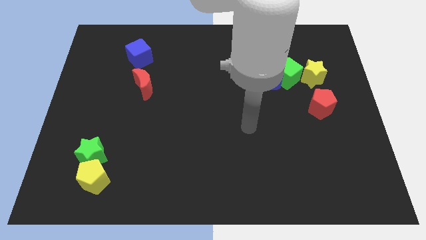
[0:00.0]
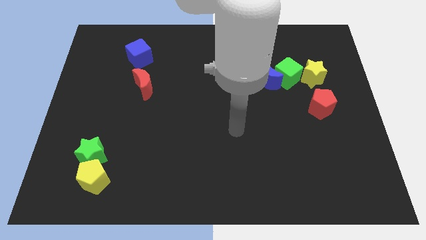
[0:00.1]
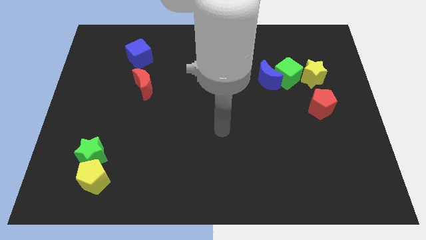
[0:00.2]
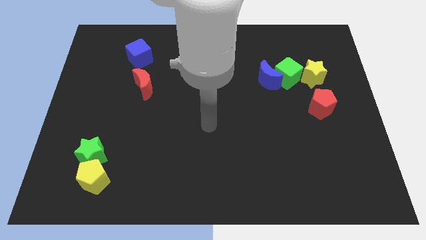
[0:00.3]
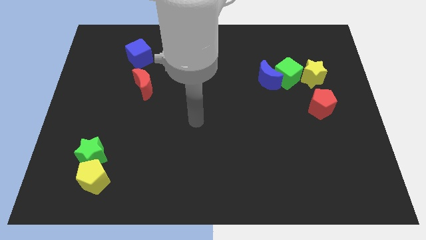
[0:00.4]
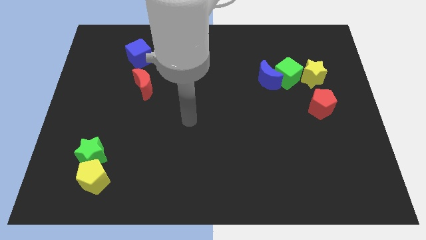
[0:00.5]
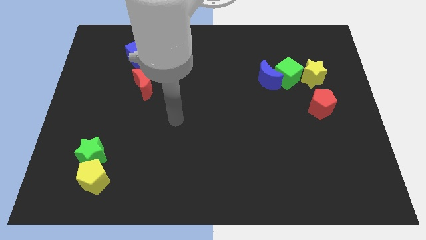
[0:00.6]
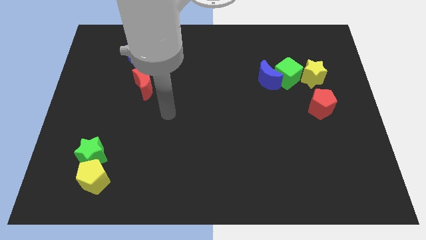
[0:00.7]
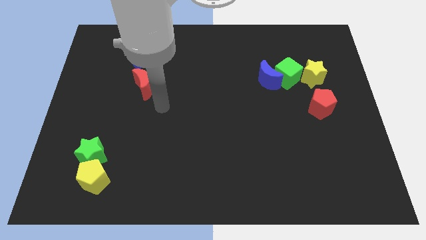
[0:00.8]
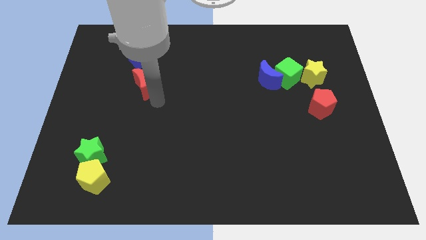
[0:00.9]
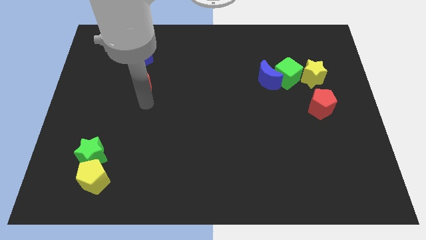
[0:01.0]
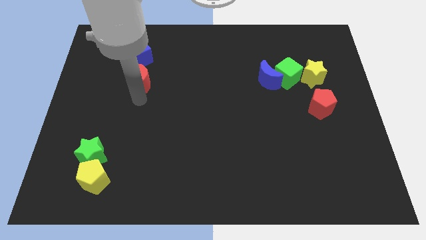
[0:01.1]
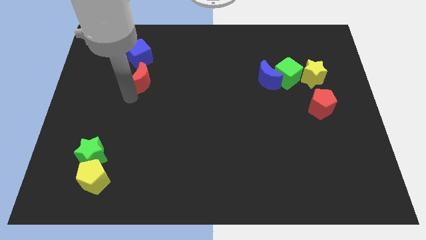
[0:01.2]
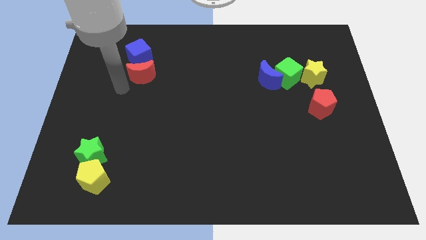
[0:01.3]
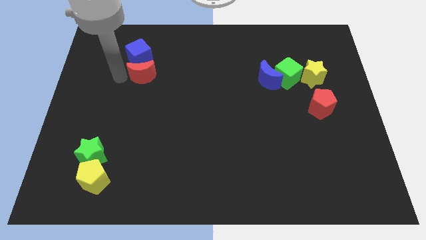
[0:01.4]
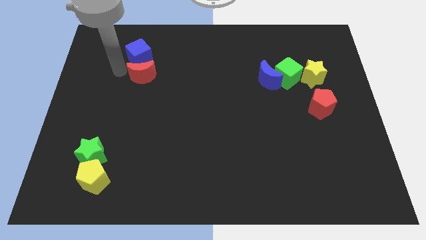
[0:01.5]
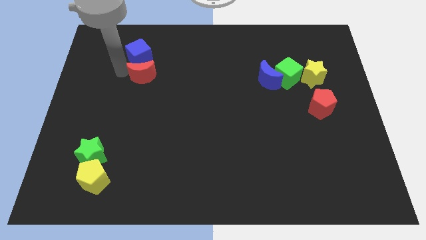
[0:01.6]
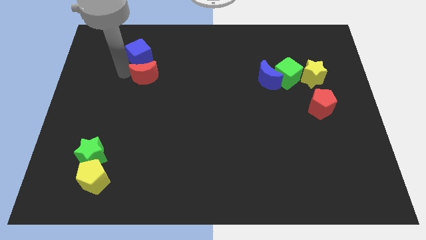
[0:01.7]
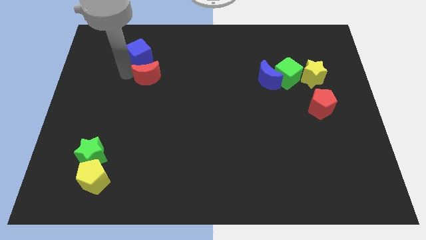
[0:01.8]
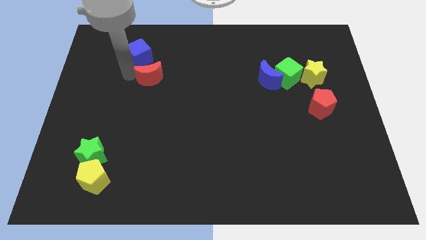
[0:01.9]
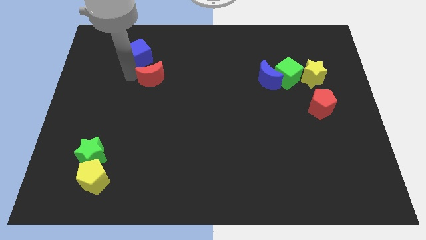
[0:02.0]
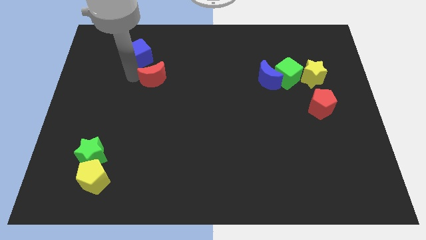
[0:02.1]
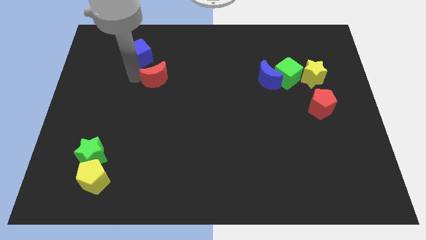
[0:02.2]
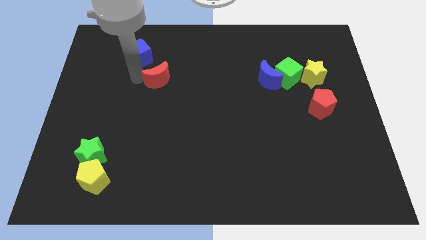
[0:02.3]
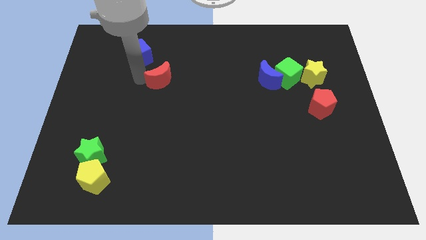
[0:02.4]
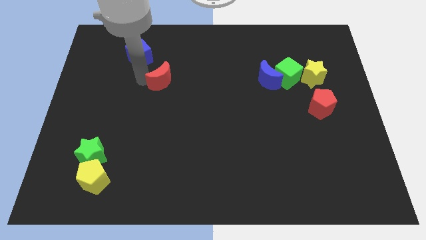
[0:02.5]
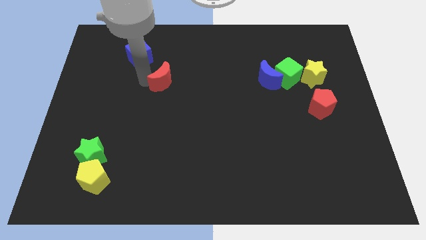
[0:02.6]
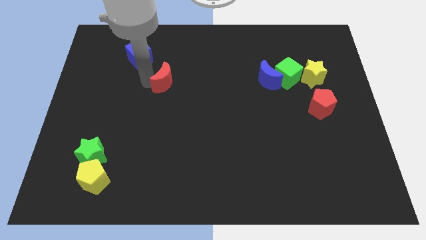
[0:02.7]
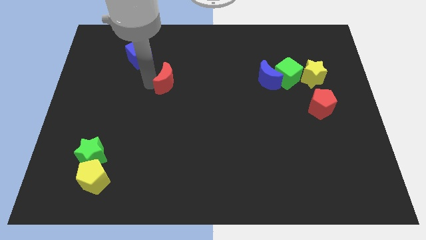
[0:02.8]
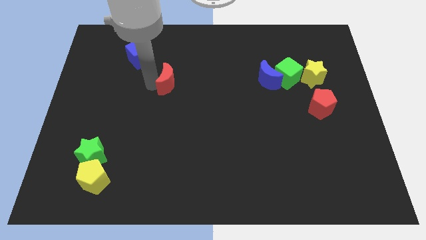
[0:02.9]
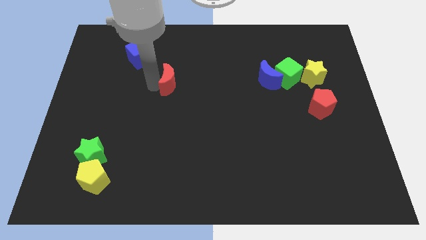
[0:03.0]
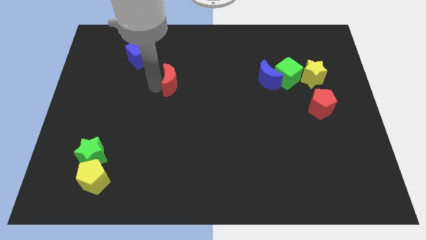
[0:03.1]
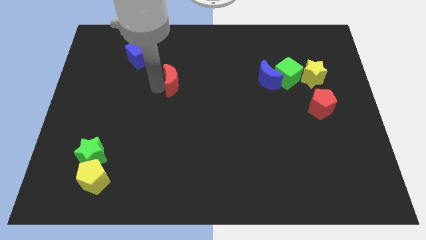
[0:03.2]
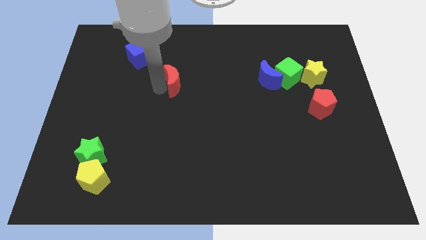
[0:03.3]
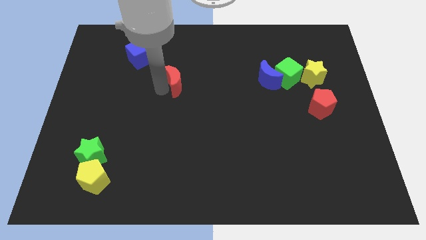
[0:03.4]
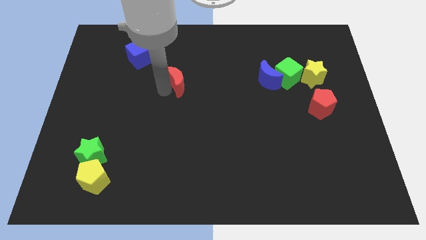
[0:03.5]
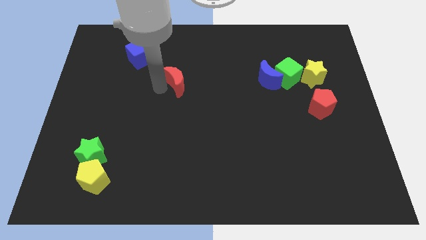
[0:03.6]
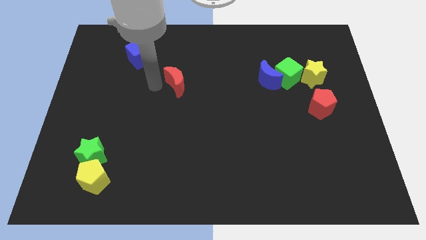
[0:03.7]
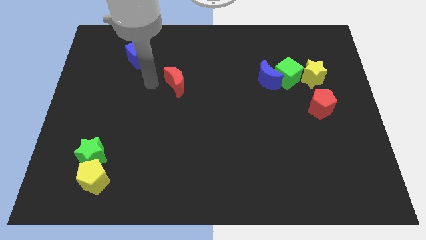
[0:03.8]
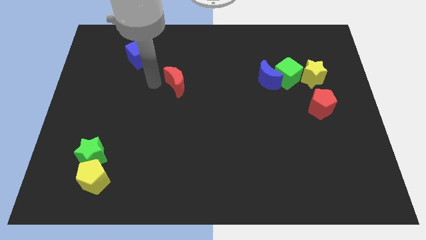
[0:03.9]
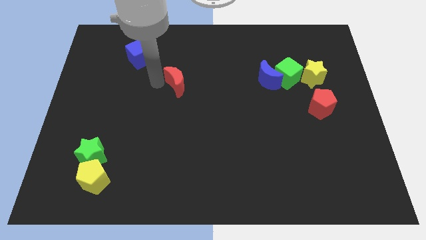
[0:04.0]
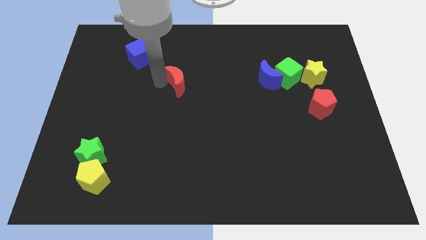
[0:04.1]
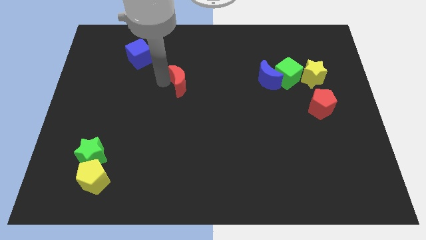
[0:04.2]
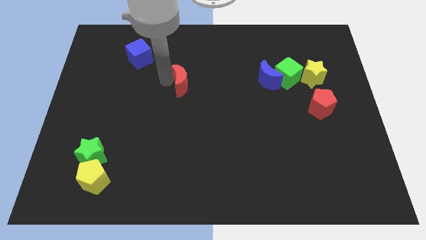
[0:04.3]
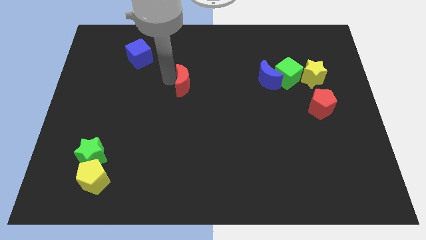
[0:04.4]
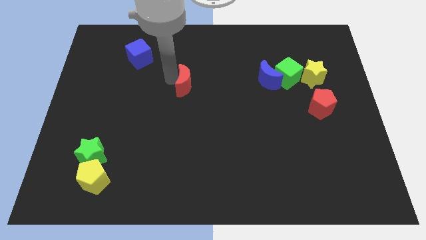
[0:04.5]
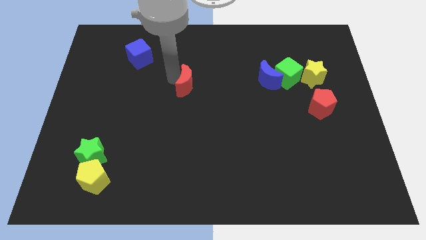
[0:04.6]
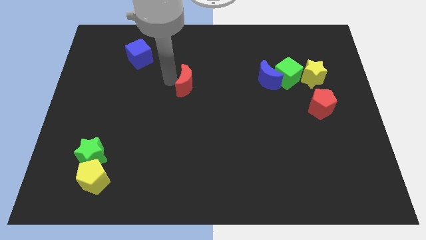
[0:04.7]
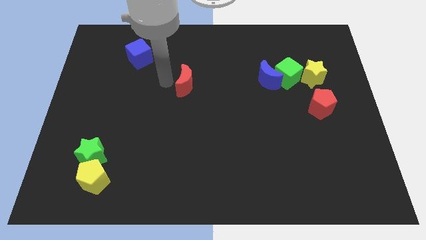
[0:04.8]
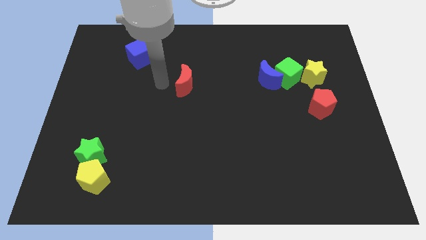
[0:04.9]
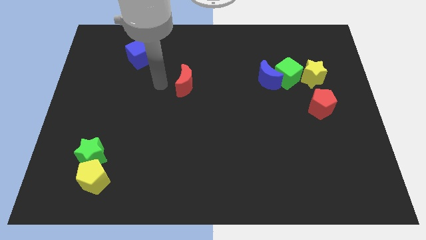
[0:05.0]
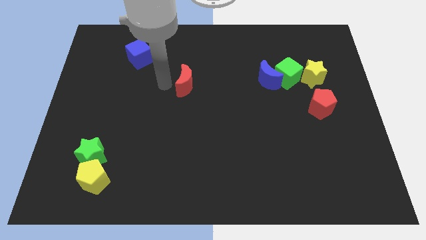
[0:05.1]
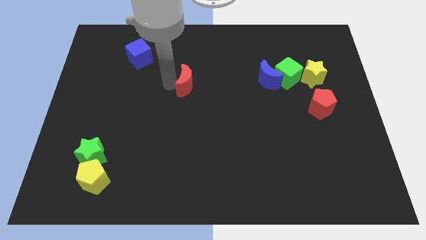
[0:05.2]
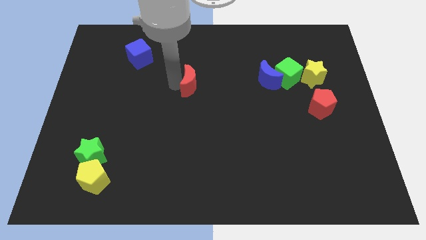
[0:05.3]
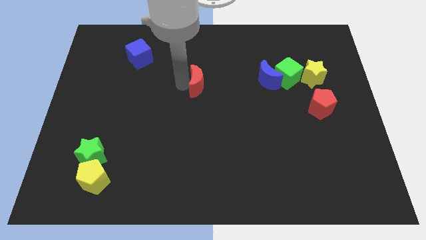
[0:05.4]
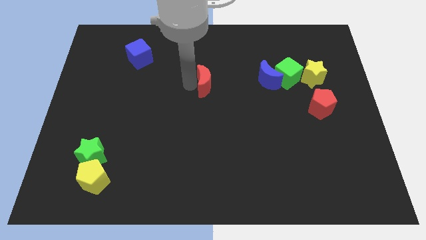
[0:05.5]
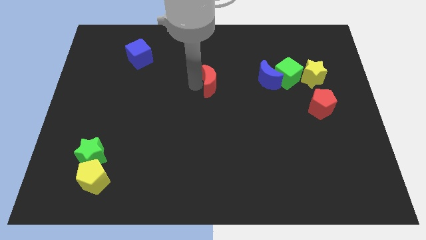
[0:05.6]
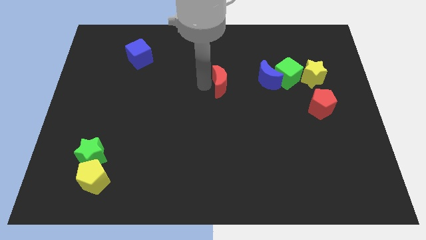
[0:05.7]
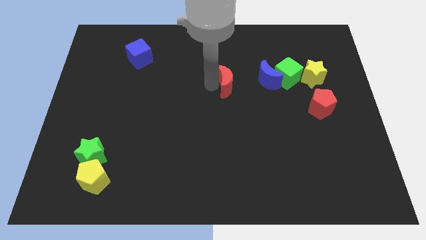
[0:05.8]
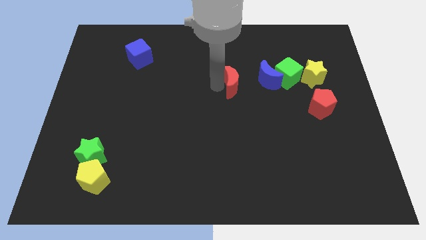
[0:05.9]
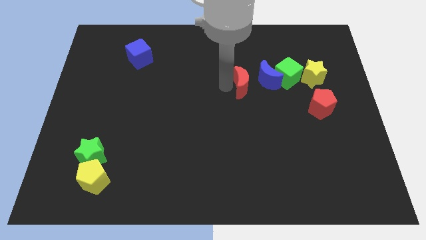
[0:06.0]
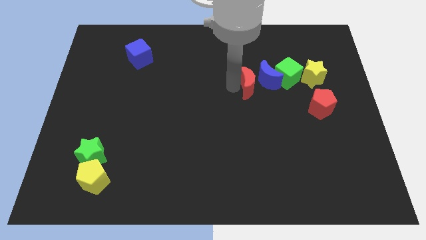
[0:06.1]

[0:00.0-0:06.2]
slide the red moon next to the blue moon

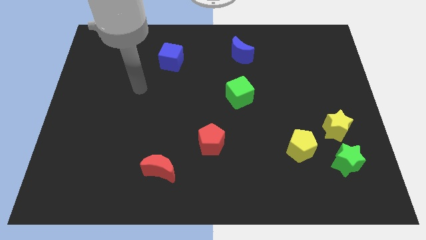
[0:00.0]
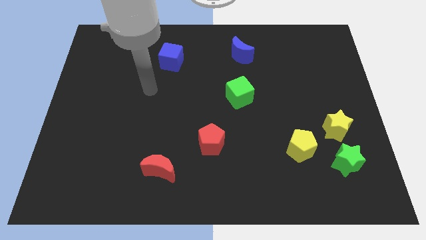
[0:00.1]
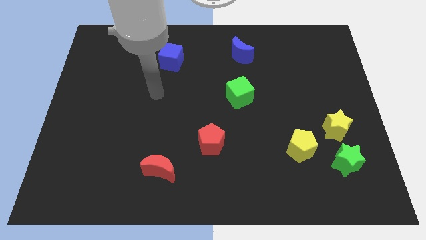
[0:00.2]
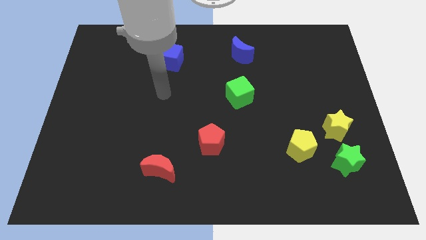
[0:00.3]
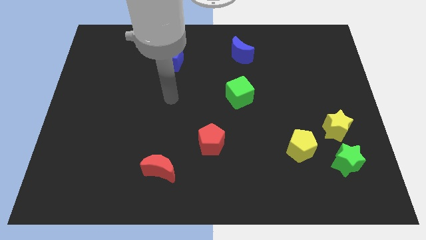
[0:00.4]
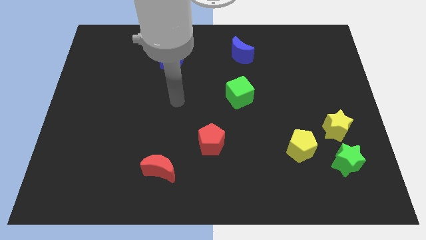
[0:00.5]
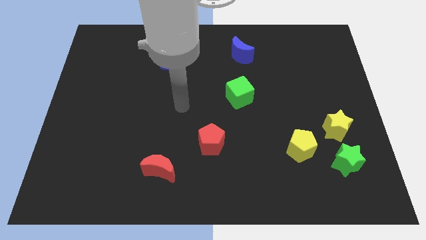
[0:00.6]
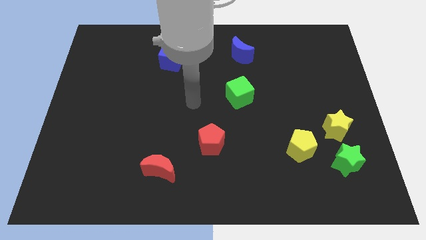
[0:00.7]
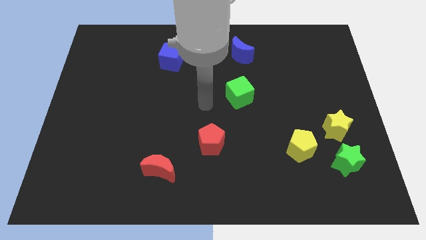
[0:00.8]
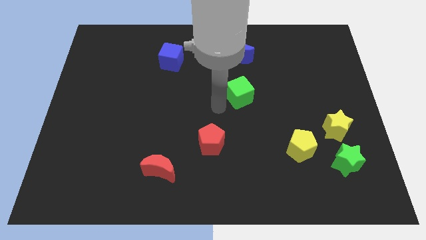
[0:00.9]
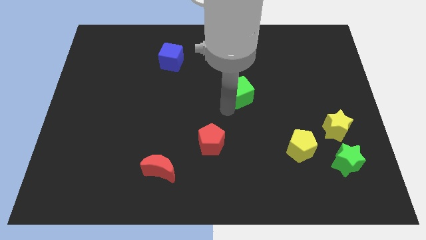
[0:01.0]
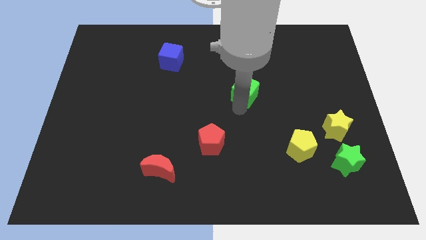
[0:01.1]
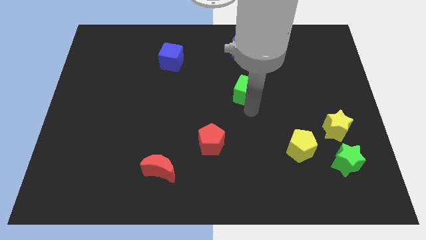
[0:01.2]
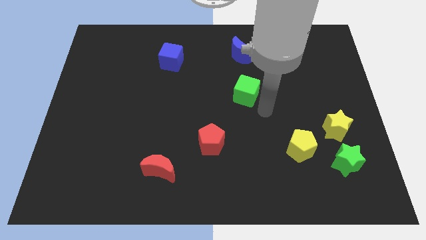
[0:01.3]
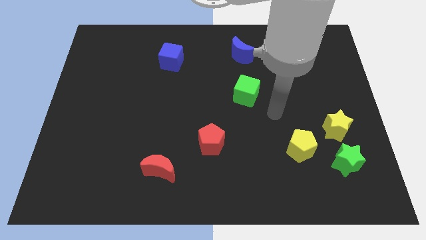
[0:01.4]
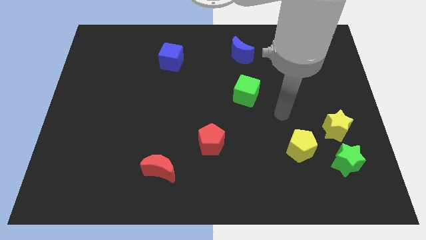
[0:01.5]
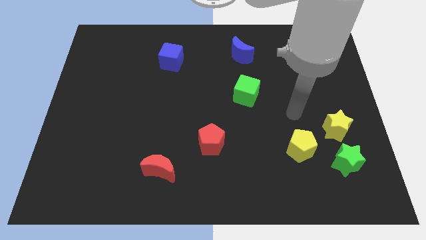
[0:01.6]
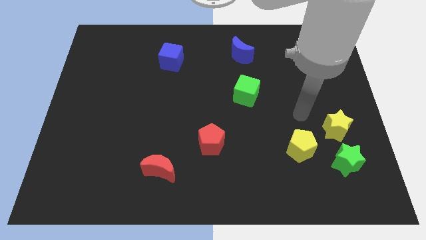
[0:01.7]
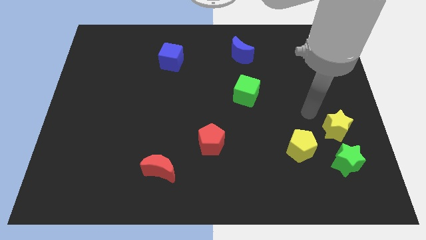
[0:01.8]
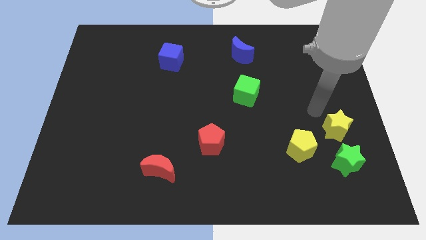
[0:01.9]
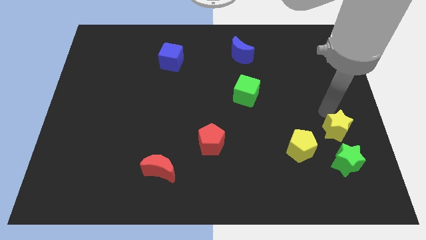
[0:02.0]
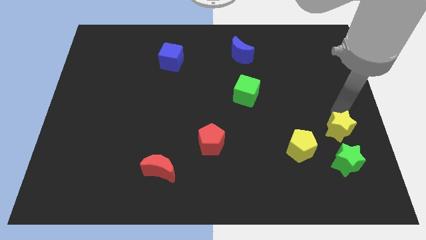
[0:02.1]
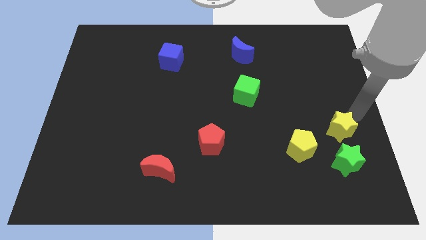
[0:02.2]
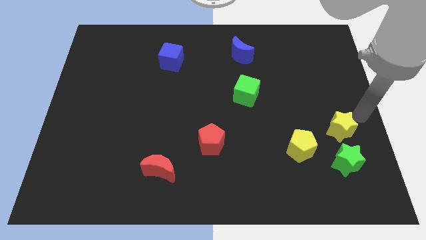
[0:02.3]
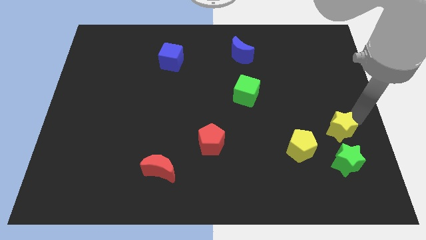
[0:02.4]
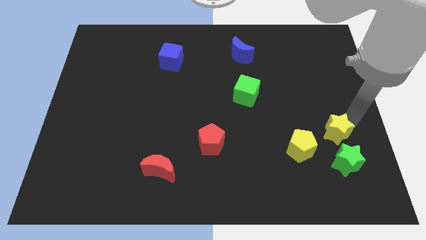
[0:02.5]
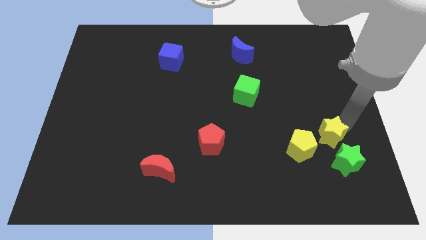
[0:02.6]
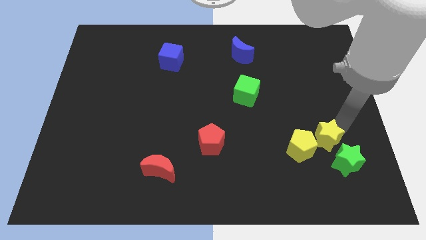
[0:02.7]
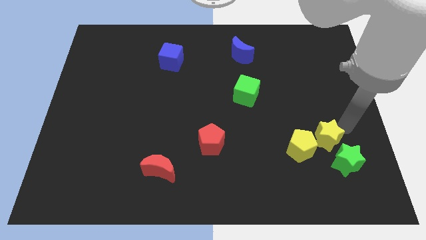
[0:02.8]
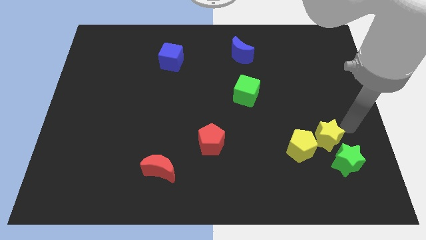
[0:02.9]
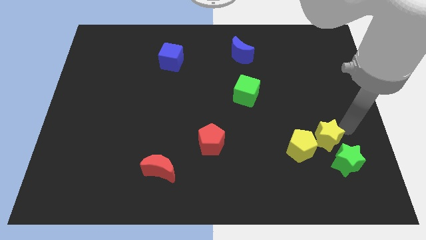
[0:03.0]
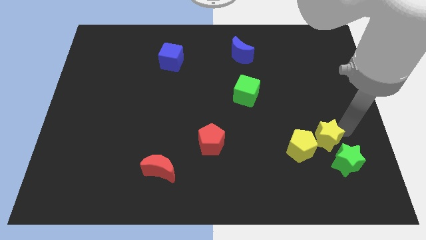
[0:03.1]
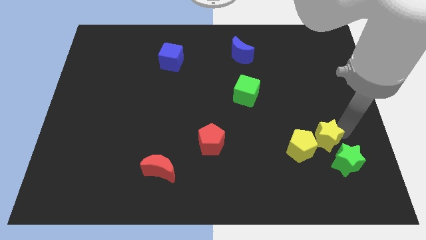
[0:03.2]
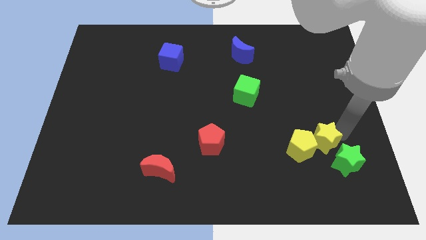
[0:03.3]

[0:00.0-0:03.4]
slide the yellow star close to the yellow pentagon
